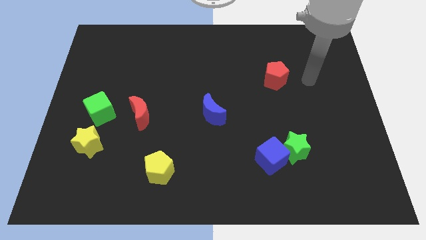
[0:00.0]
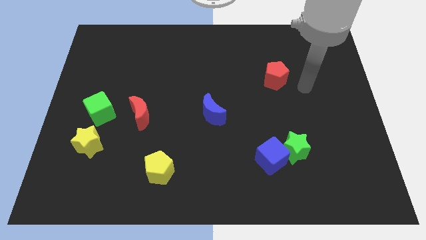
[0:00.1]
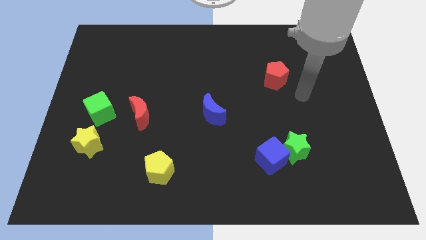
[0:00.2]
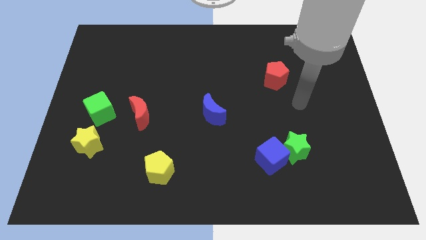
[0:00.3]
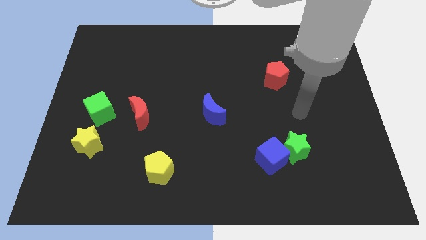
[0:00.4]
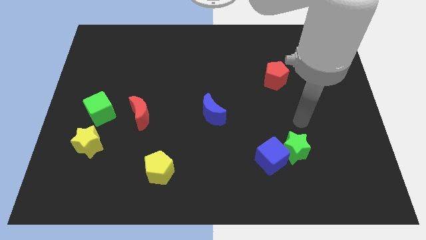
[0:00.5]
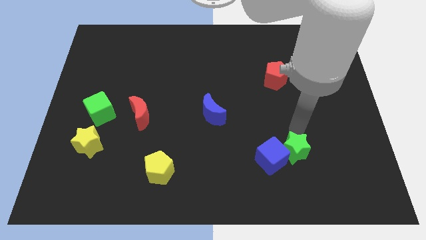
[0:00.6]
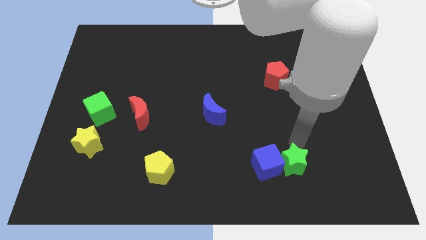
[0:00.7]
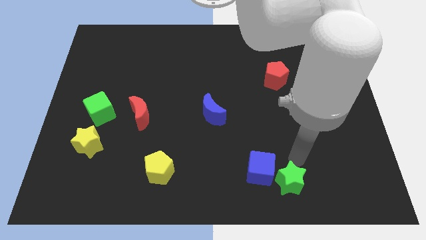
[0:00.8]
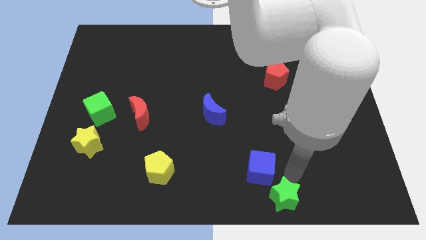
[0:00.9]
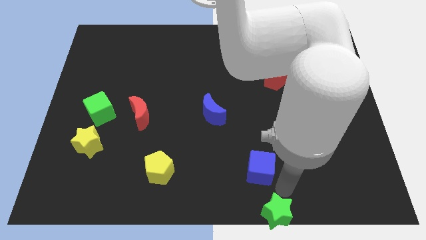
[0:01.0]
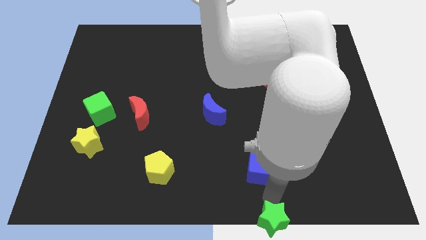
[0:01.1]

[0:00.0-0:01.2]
move the blue cube away from the green star

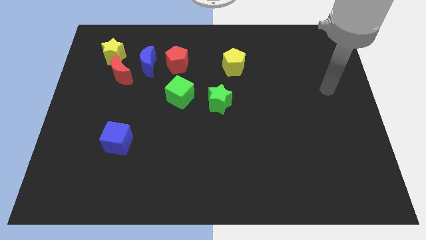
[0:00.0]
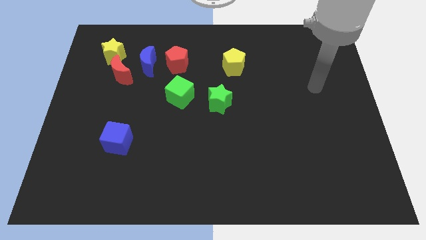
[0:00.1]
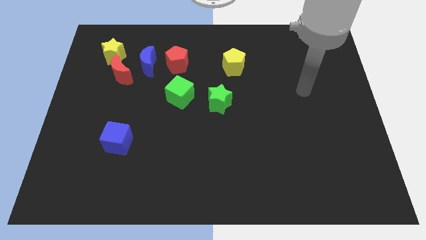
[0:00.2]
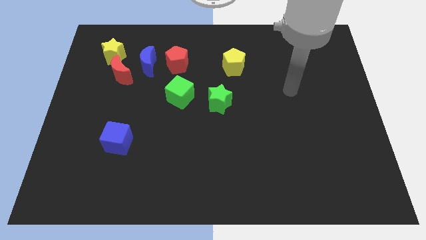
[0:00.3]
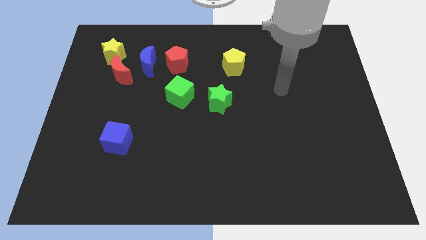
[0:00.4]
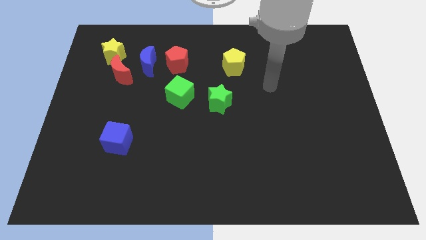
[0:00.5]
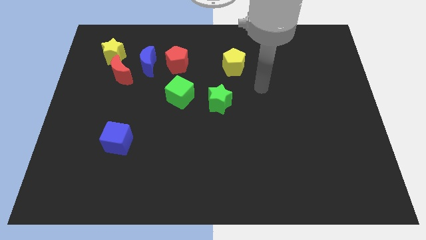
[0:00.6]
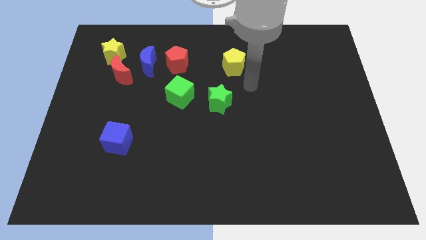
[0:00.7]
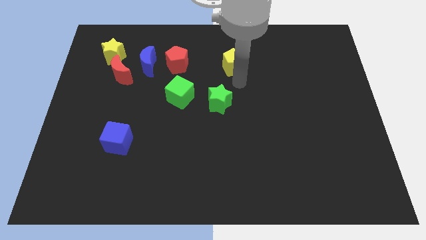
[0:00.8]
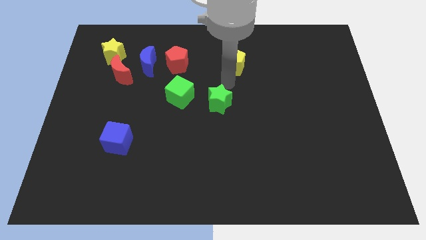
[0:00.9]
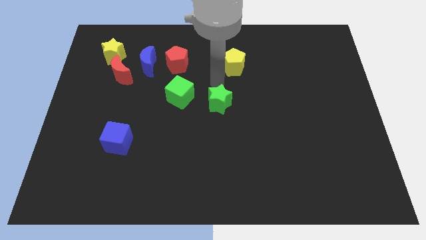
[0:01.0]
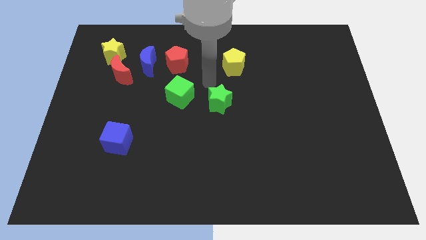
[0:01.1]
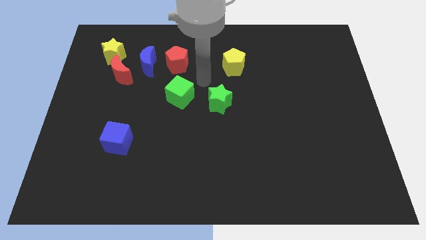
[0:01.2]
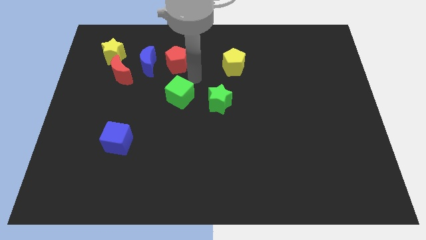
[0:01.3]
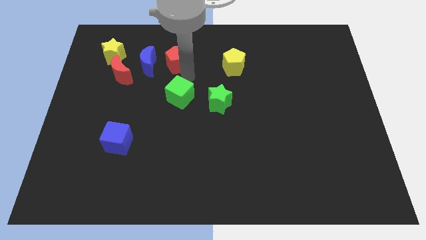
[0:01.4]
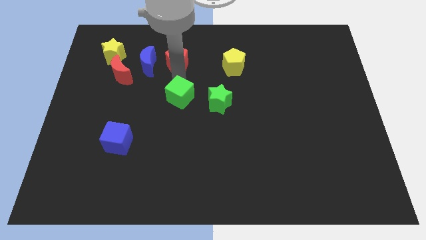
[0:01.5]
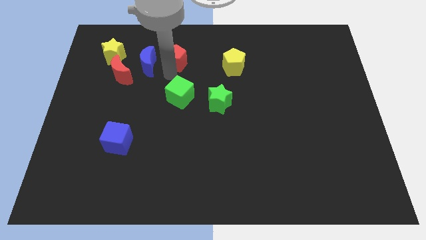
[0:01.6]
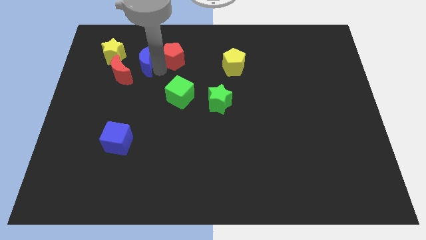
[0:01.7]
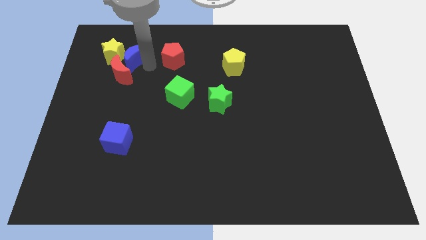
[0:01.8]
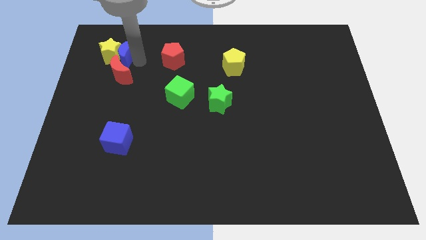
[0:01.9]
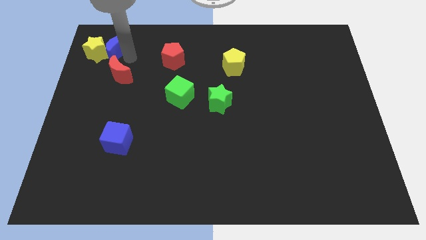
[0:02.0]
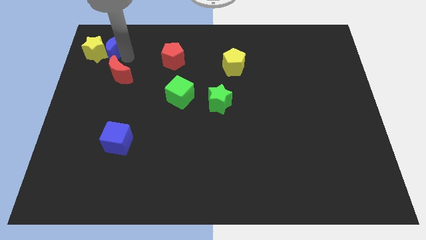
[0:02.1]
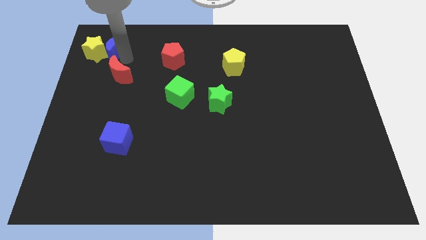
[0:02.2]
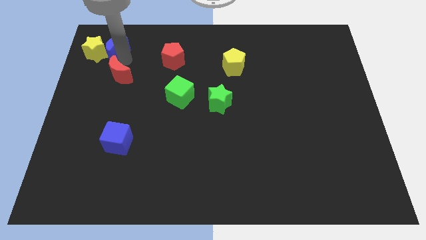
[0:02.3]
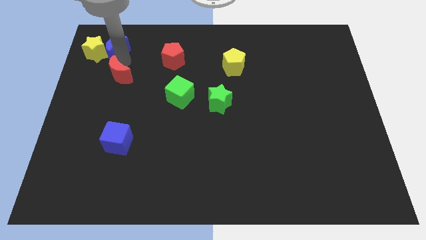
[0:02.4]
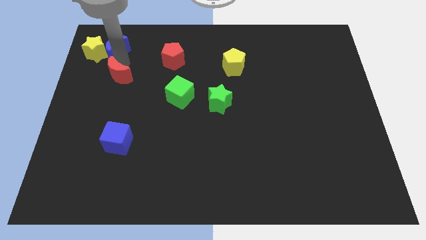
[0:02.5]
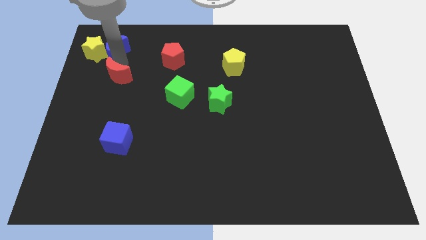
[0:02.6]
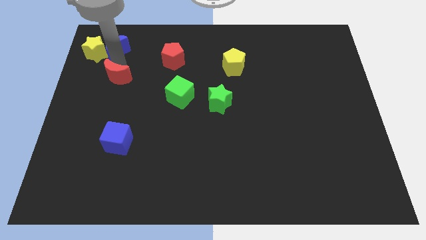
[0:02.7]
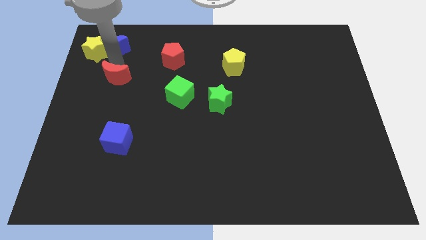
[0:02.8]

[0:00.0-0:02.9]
move the red moon away from the yellow star and blue moon

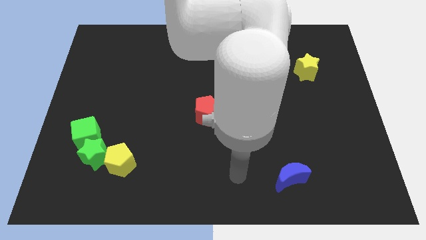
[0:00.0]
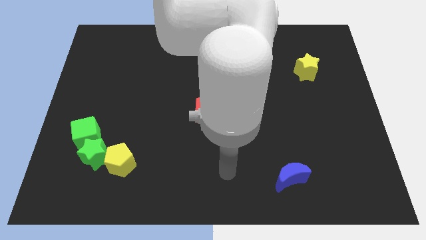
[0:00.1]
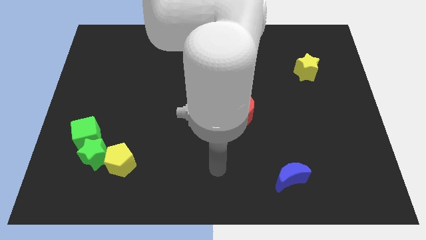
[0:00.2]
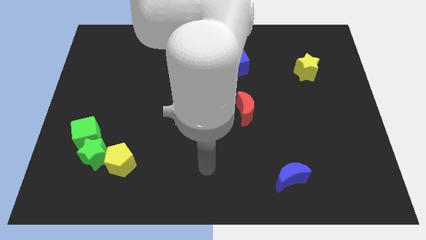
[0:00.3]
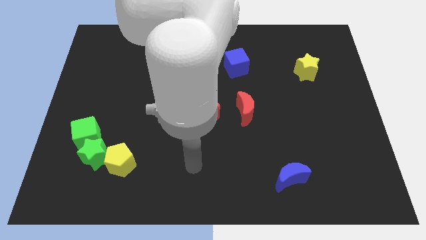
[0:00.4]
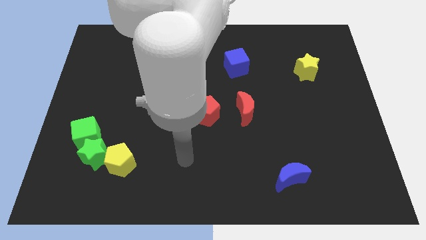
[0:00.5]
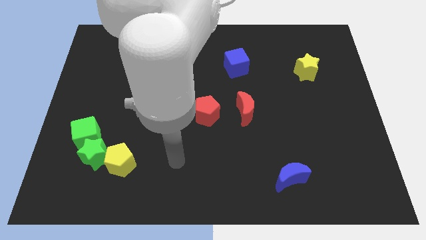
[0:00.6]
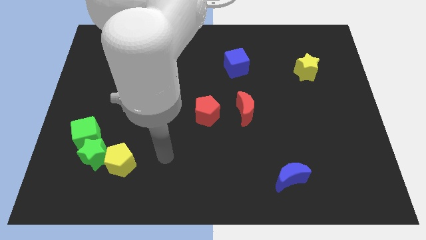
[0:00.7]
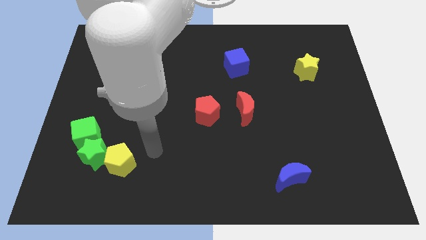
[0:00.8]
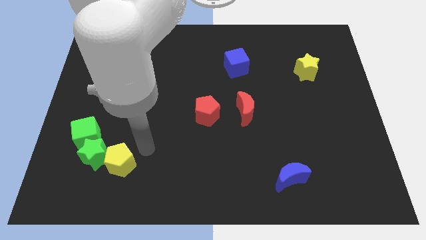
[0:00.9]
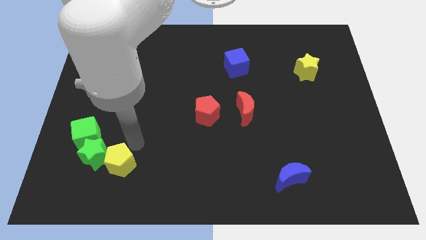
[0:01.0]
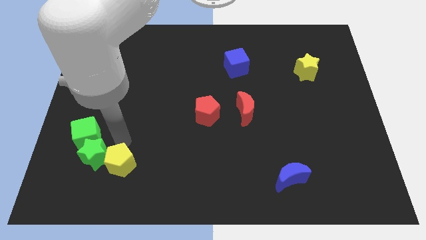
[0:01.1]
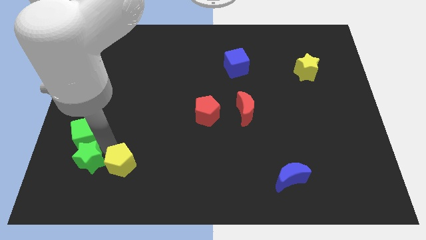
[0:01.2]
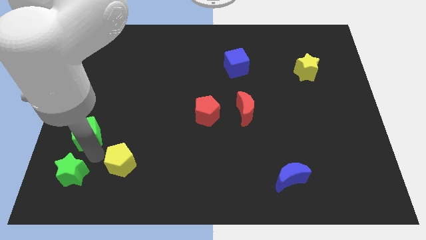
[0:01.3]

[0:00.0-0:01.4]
separate the yellow pentagon from the green star

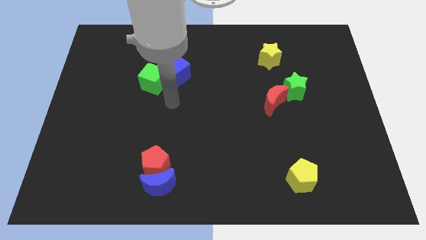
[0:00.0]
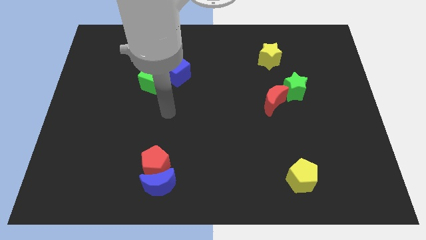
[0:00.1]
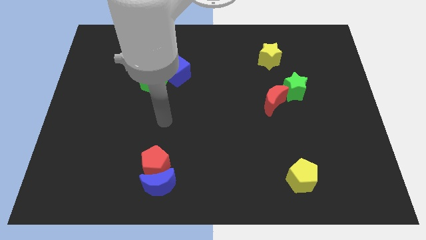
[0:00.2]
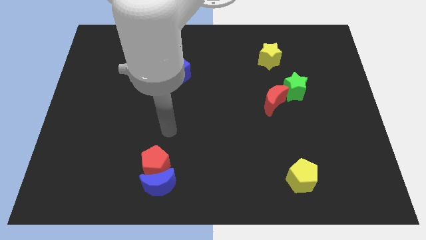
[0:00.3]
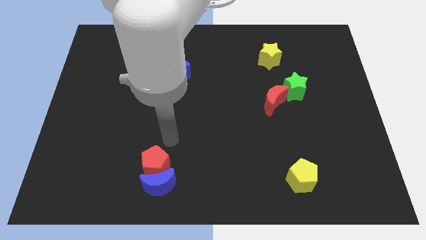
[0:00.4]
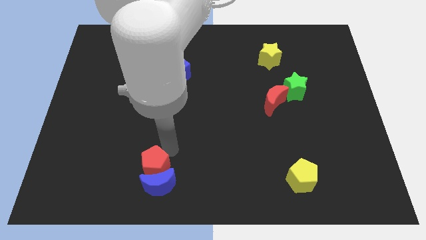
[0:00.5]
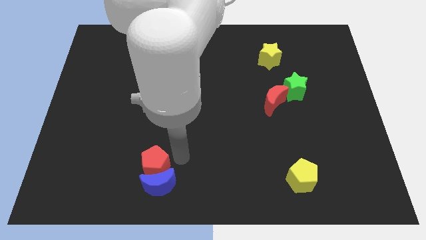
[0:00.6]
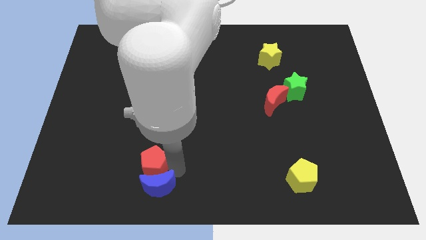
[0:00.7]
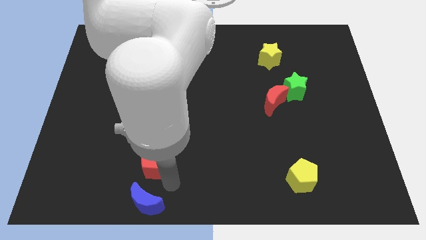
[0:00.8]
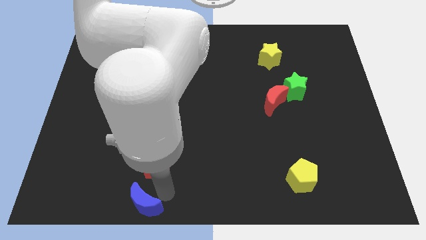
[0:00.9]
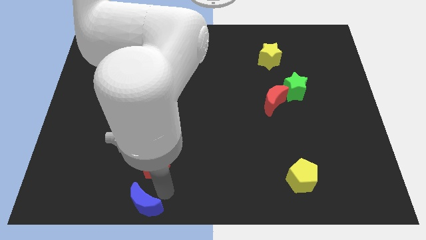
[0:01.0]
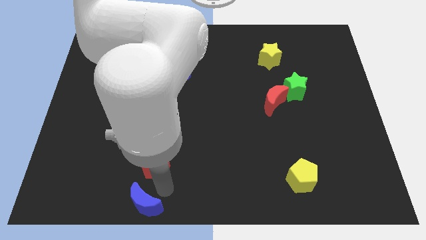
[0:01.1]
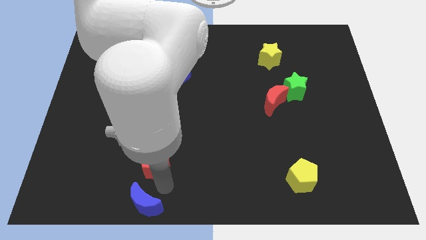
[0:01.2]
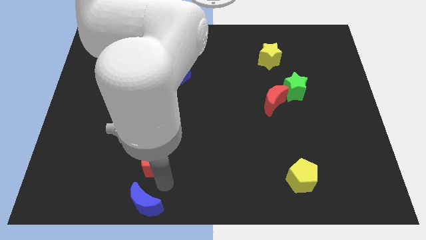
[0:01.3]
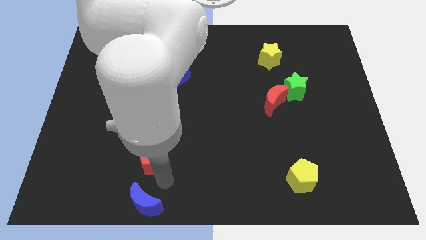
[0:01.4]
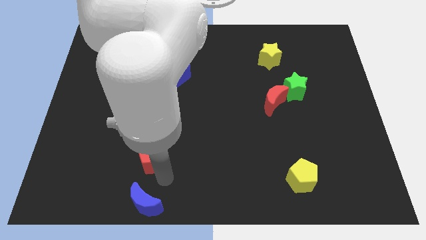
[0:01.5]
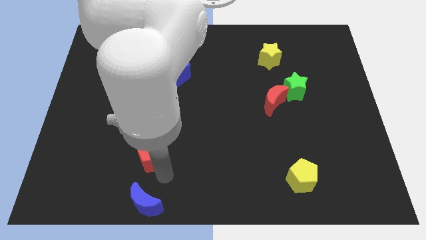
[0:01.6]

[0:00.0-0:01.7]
separate the red pentagon from the blue moon

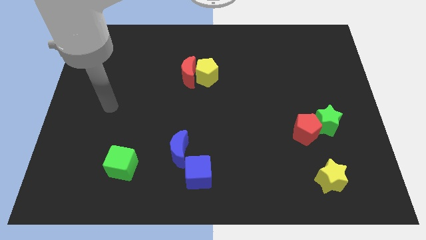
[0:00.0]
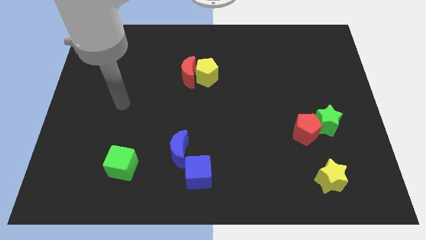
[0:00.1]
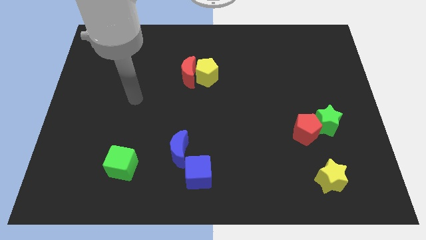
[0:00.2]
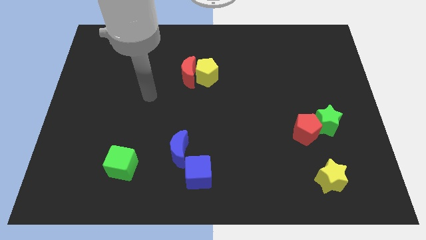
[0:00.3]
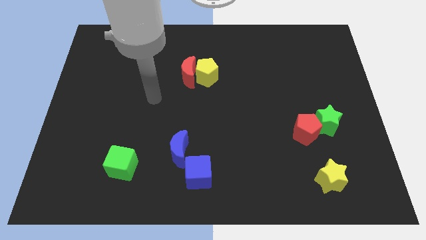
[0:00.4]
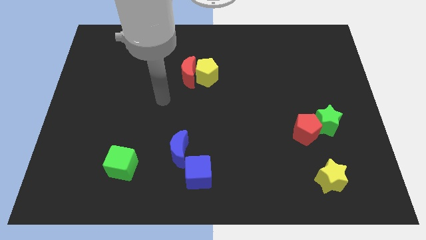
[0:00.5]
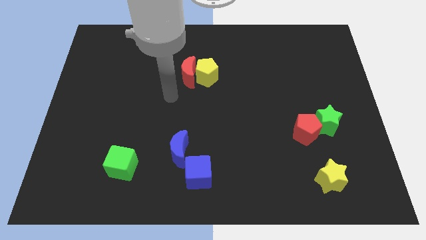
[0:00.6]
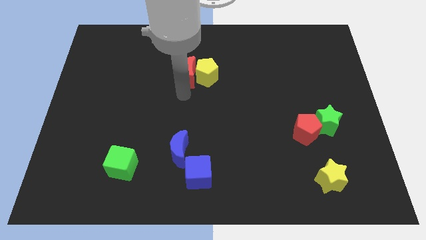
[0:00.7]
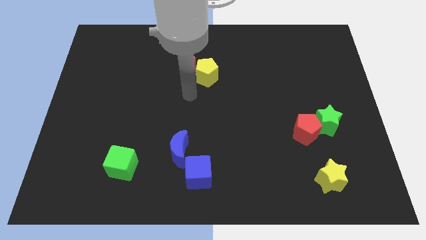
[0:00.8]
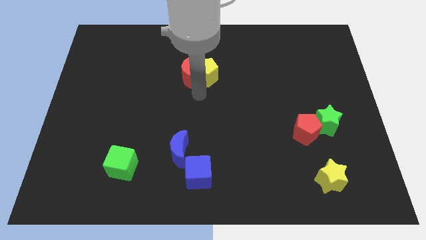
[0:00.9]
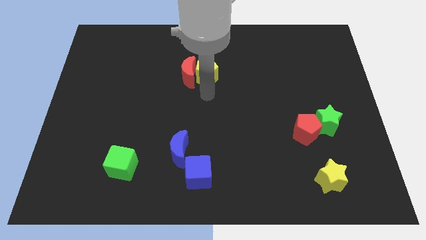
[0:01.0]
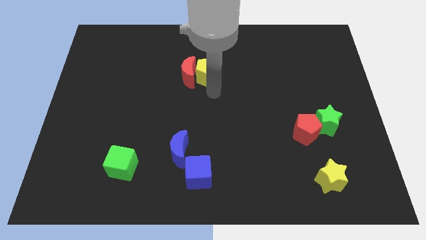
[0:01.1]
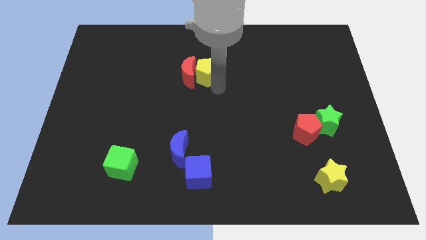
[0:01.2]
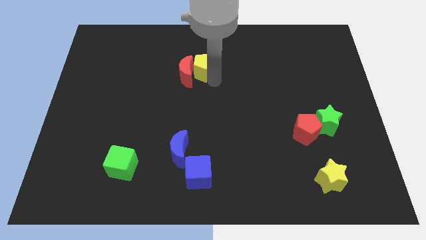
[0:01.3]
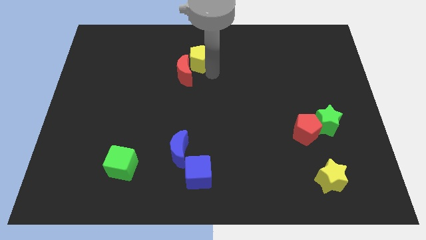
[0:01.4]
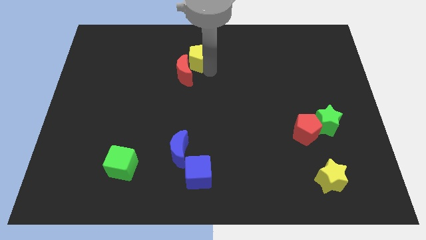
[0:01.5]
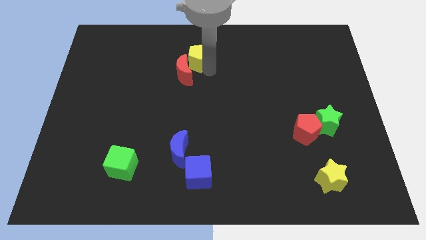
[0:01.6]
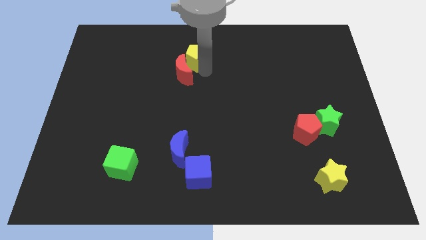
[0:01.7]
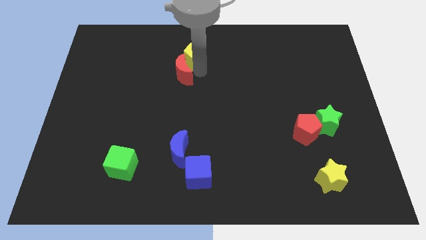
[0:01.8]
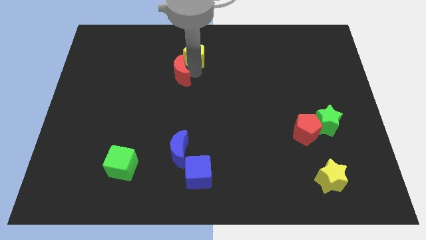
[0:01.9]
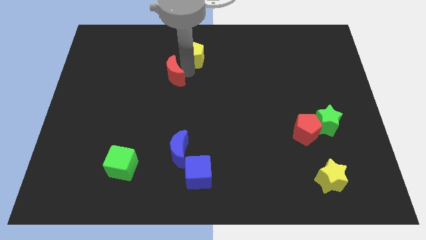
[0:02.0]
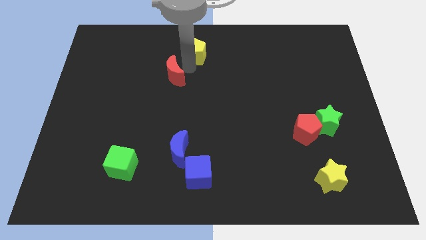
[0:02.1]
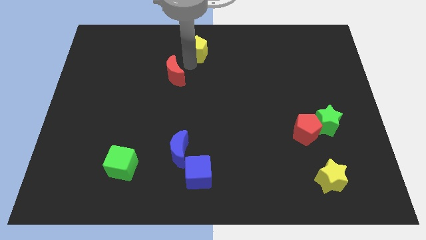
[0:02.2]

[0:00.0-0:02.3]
pull the red moon apart from the yellow pentagon
